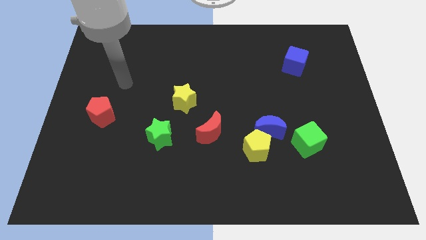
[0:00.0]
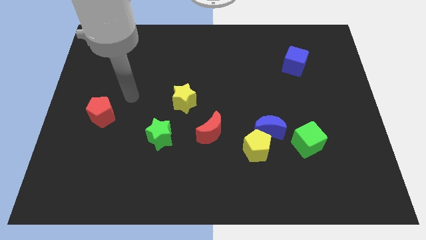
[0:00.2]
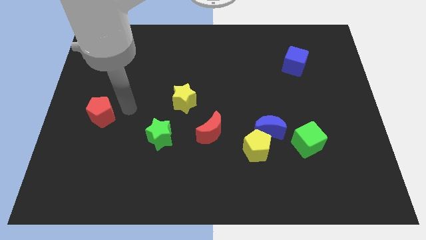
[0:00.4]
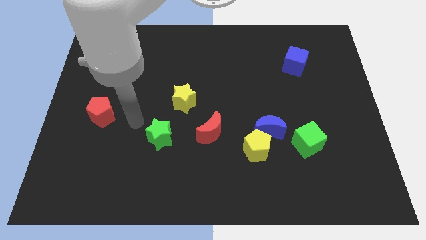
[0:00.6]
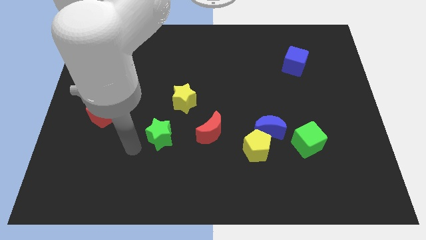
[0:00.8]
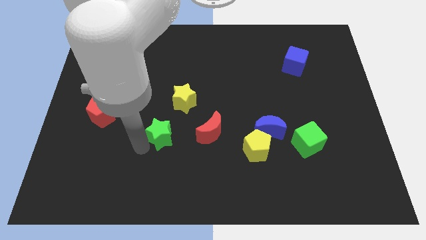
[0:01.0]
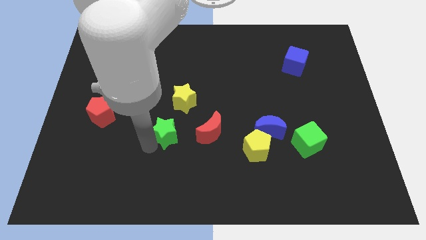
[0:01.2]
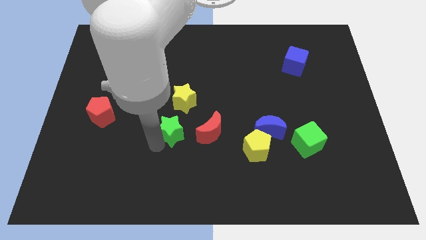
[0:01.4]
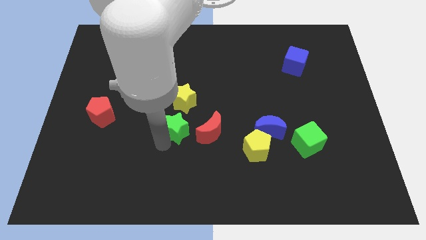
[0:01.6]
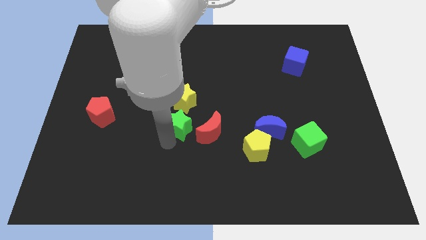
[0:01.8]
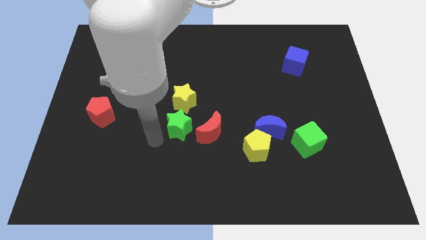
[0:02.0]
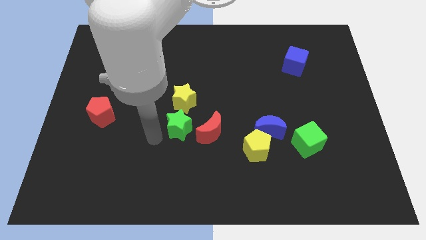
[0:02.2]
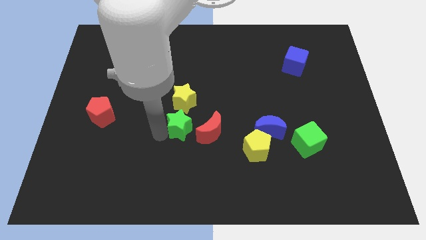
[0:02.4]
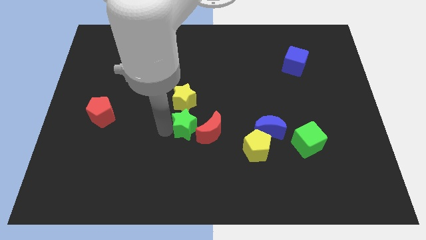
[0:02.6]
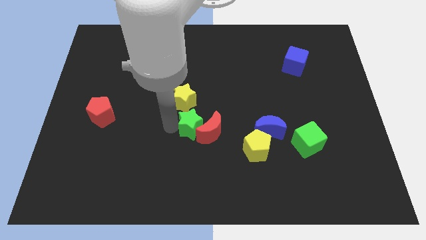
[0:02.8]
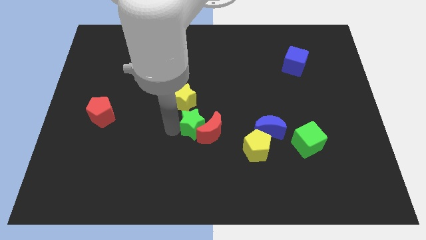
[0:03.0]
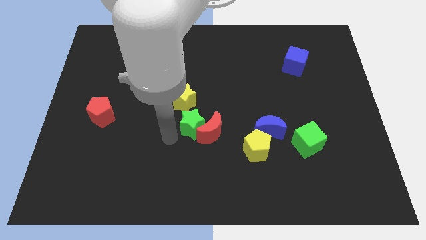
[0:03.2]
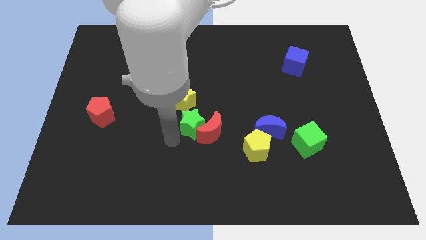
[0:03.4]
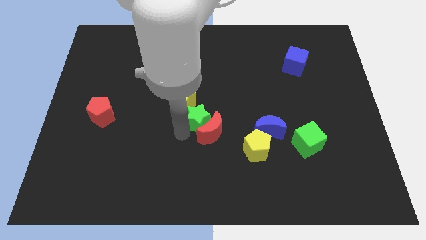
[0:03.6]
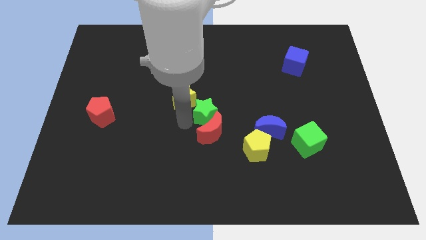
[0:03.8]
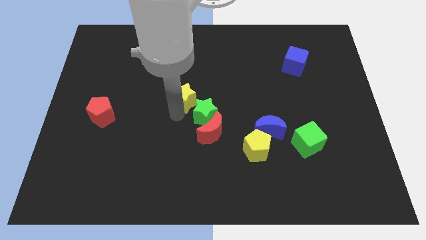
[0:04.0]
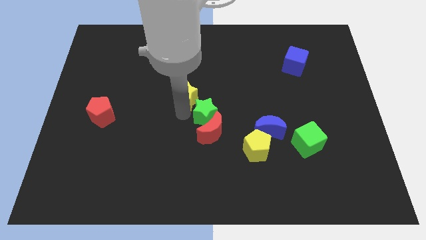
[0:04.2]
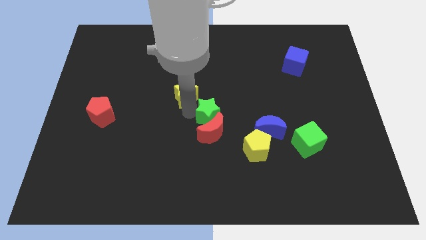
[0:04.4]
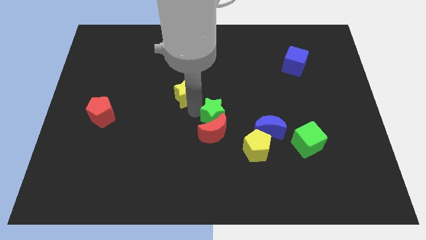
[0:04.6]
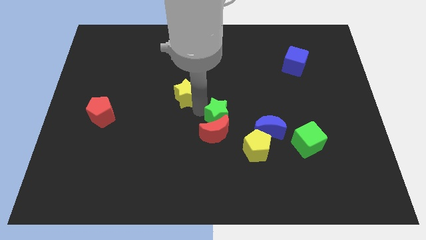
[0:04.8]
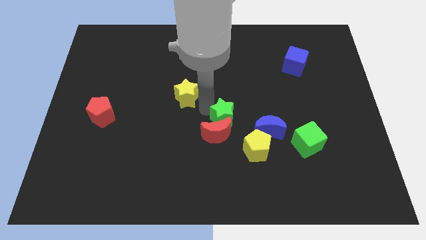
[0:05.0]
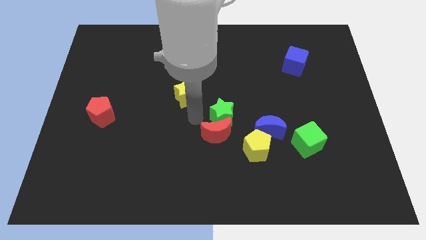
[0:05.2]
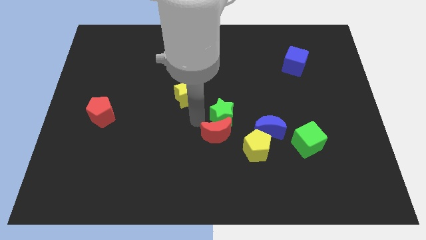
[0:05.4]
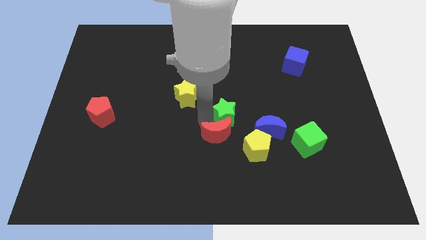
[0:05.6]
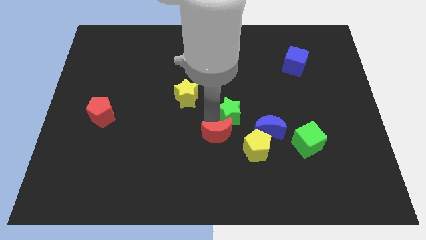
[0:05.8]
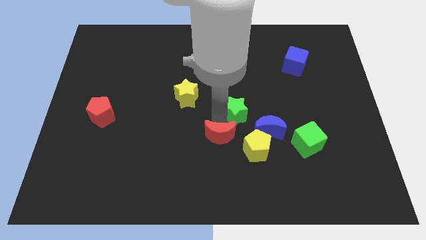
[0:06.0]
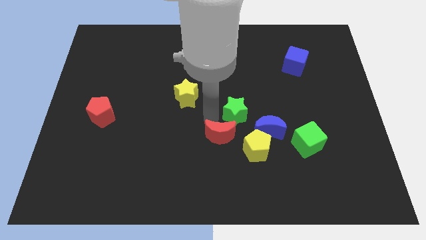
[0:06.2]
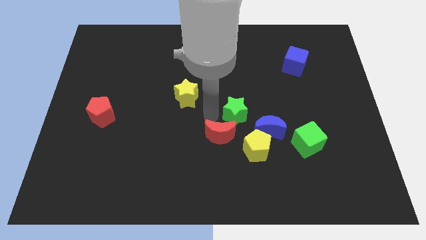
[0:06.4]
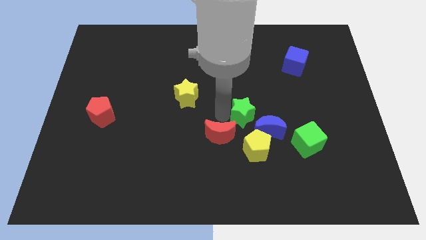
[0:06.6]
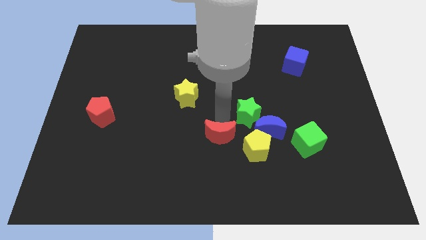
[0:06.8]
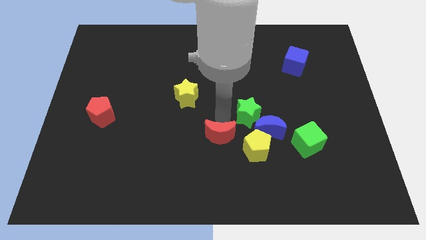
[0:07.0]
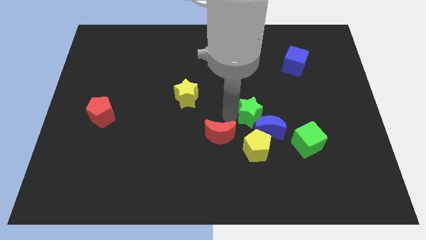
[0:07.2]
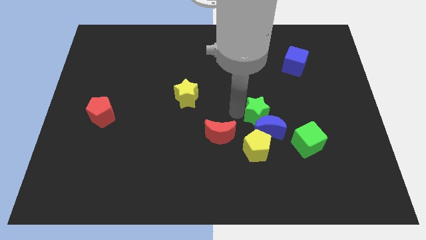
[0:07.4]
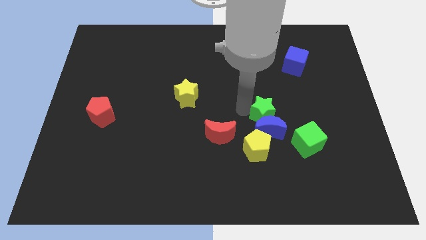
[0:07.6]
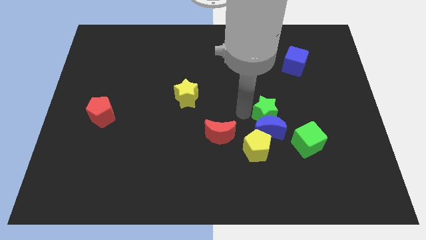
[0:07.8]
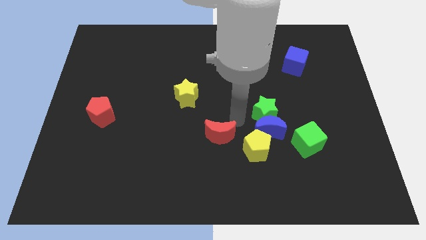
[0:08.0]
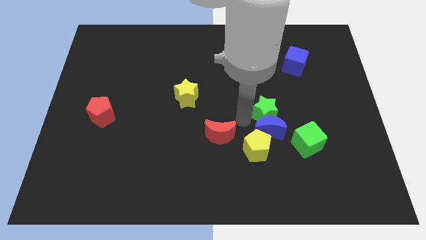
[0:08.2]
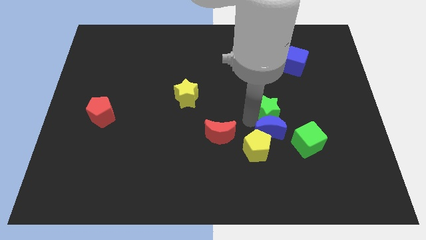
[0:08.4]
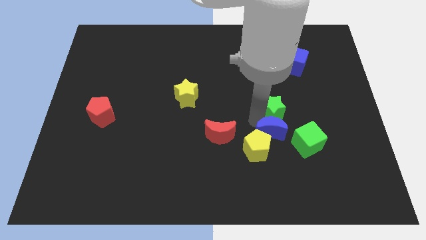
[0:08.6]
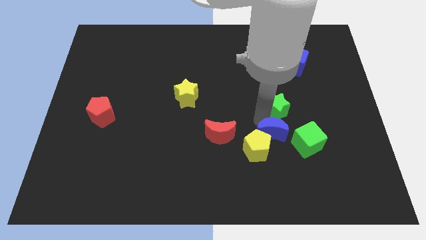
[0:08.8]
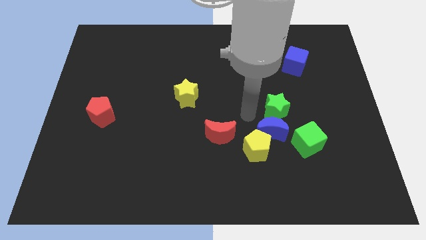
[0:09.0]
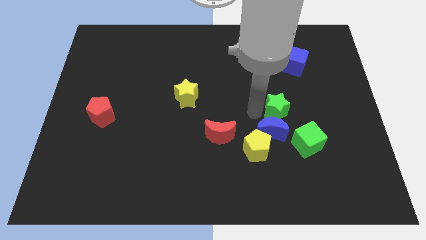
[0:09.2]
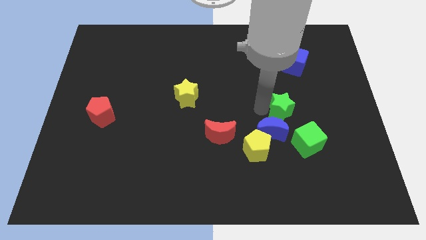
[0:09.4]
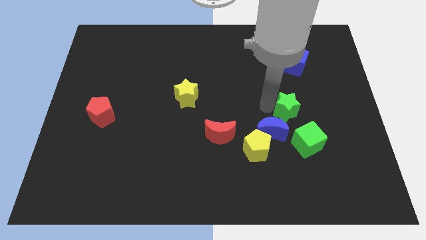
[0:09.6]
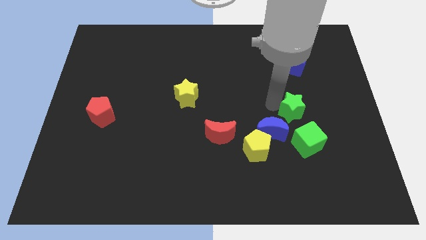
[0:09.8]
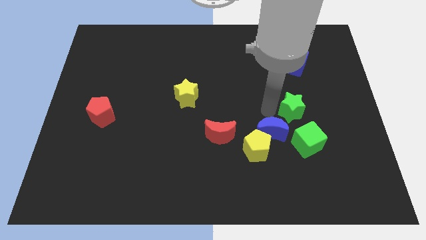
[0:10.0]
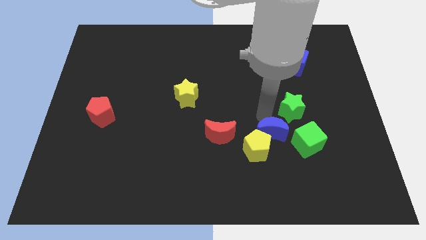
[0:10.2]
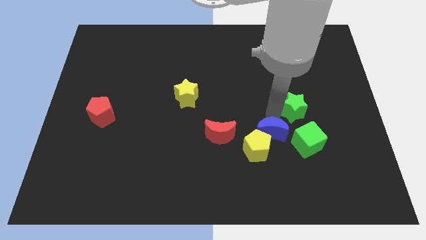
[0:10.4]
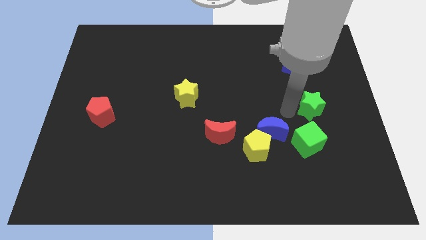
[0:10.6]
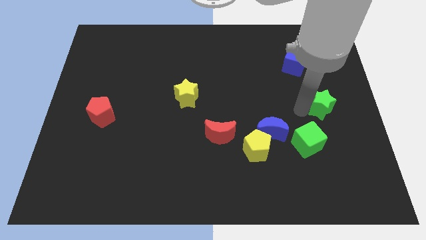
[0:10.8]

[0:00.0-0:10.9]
put the green star to the right side

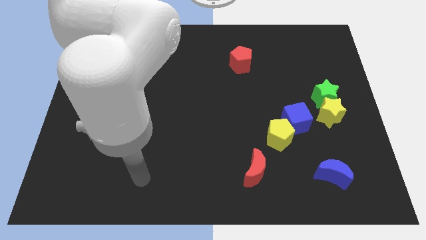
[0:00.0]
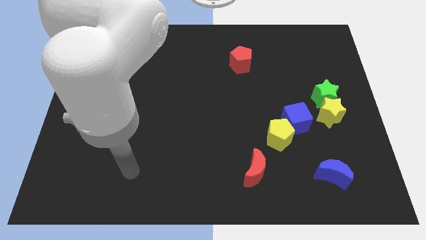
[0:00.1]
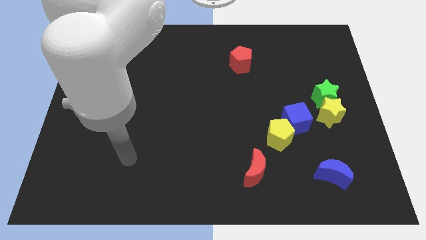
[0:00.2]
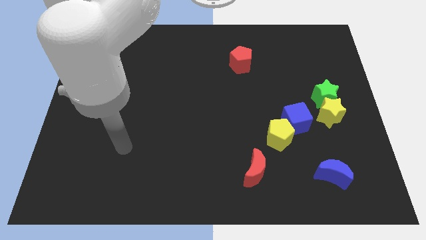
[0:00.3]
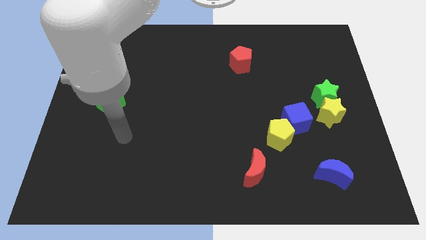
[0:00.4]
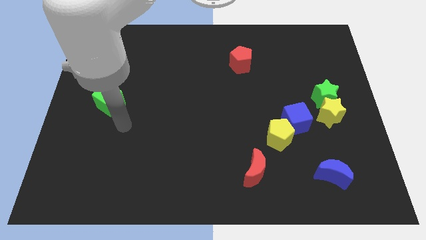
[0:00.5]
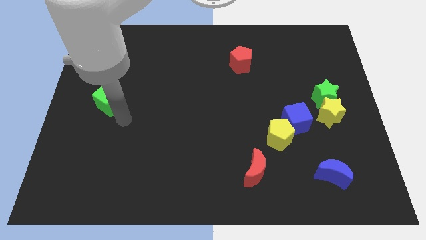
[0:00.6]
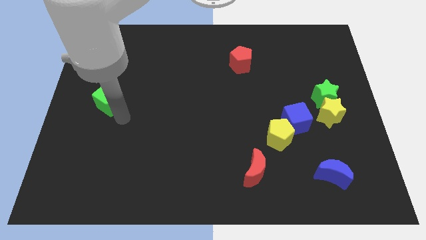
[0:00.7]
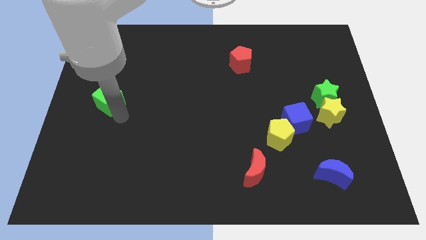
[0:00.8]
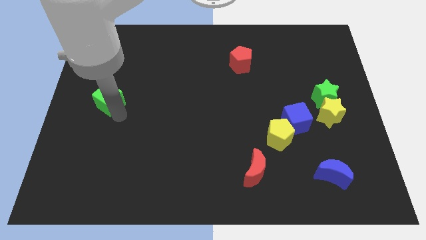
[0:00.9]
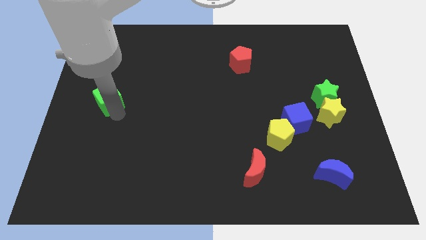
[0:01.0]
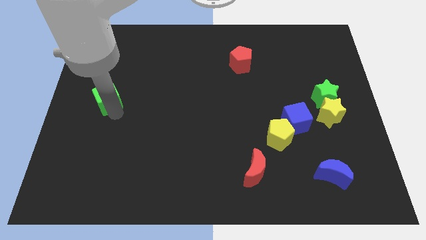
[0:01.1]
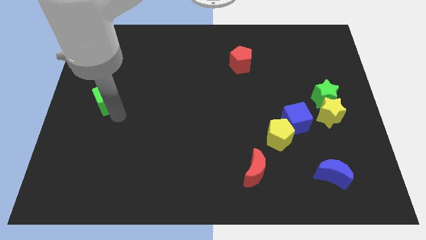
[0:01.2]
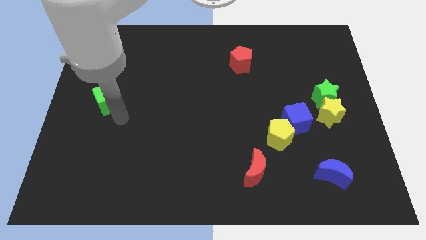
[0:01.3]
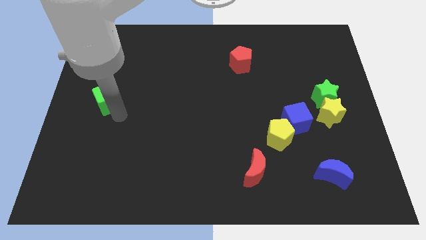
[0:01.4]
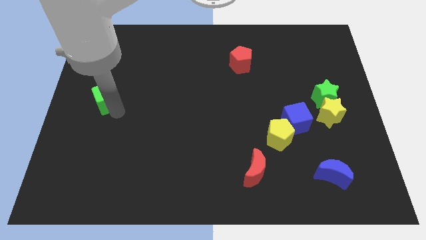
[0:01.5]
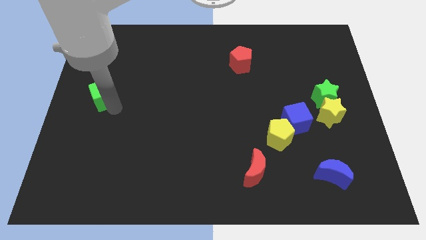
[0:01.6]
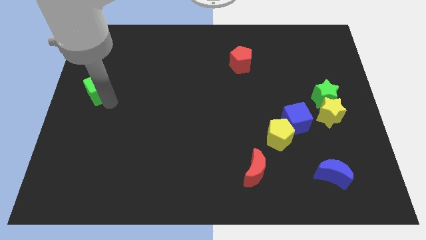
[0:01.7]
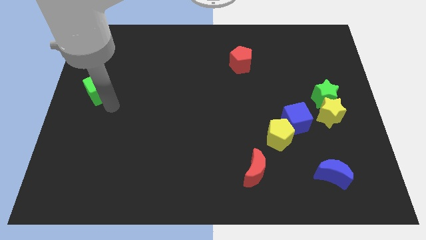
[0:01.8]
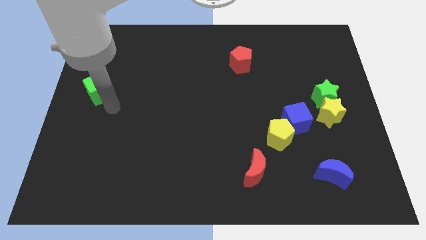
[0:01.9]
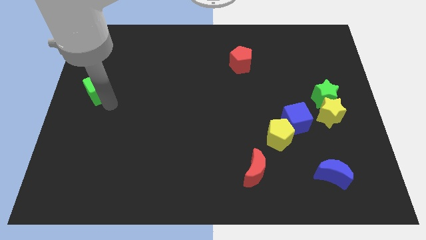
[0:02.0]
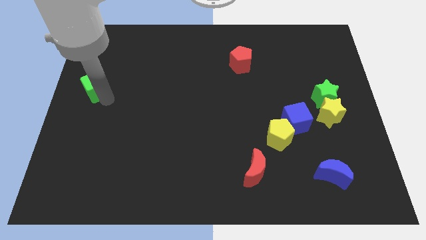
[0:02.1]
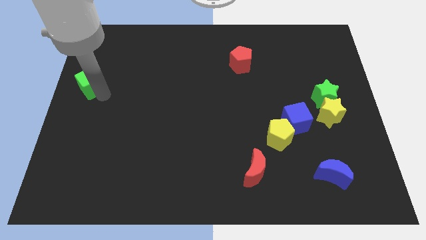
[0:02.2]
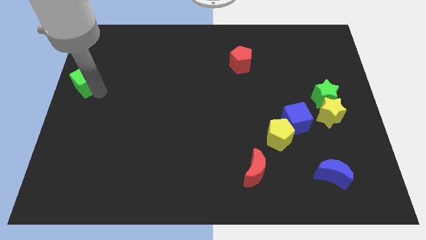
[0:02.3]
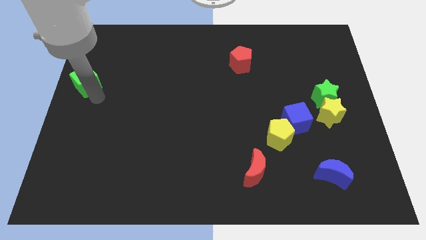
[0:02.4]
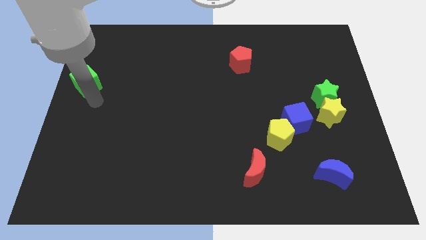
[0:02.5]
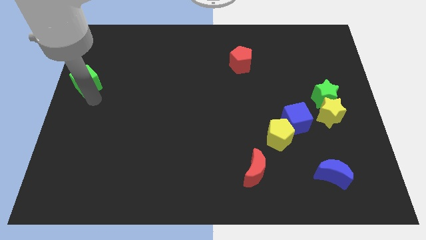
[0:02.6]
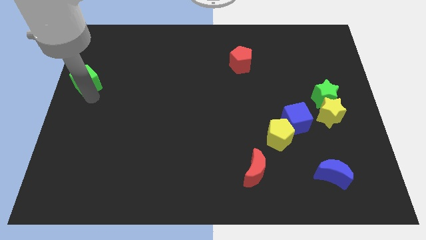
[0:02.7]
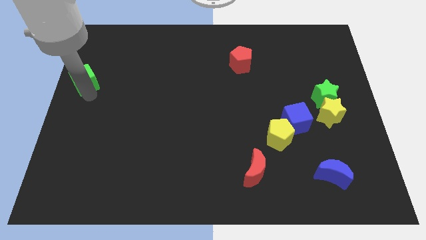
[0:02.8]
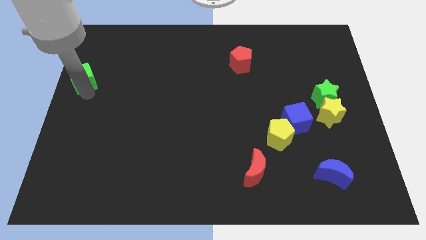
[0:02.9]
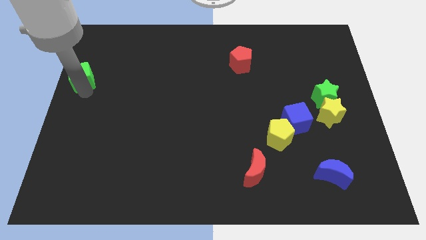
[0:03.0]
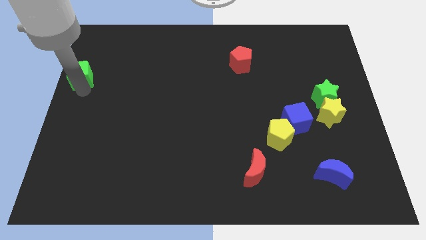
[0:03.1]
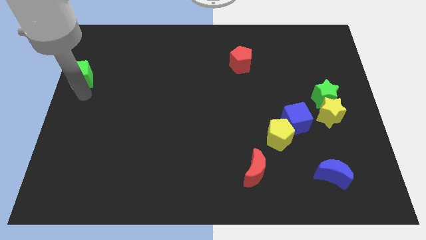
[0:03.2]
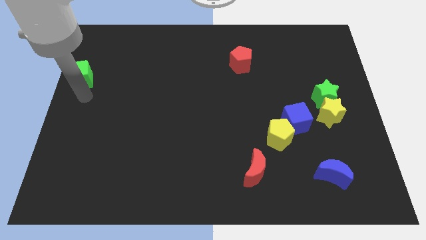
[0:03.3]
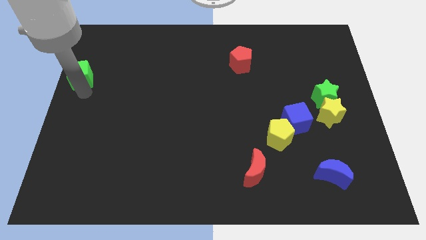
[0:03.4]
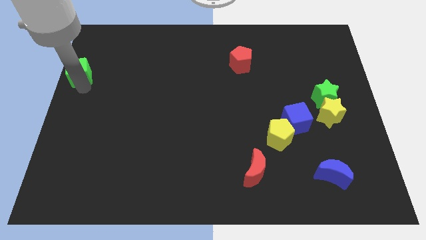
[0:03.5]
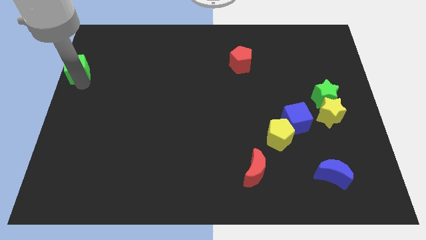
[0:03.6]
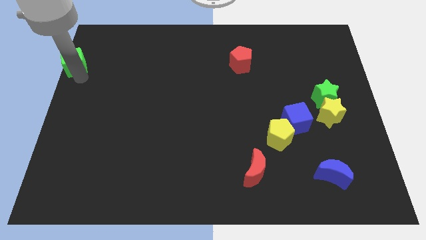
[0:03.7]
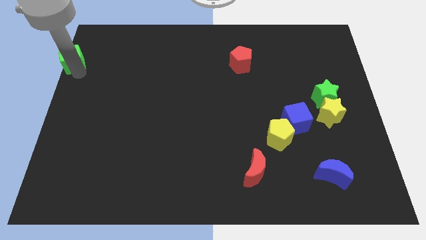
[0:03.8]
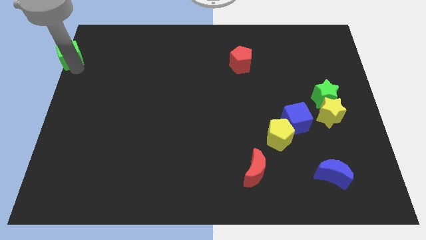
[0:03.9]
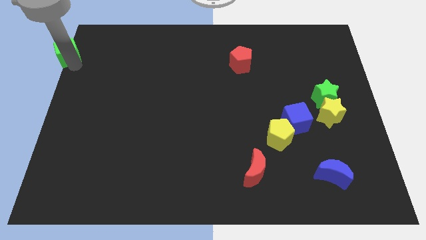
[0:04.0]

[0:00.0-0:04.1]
slide the green cube to the top left of the board
